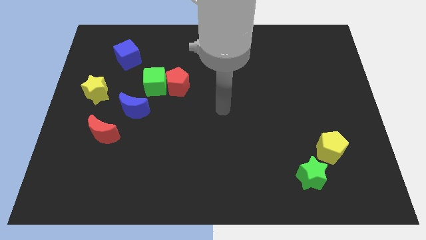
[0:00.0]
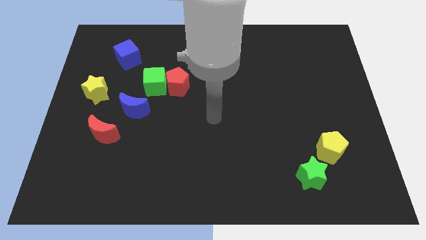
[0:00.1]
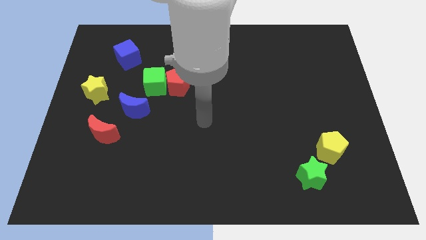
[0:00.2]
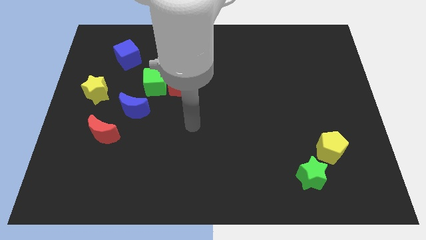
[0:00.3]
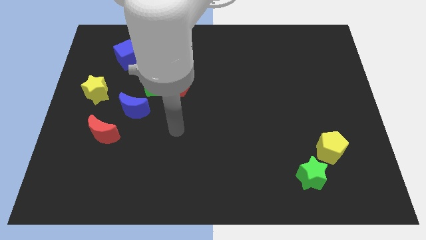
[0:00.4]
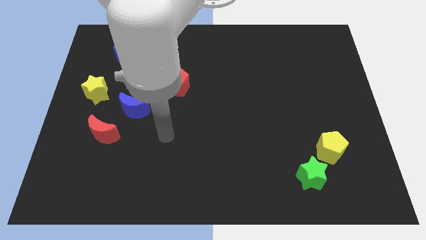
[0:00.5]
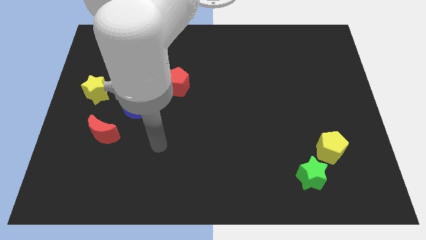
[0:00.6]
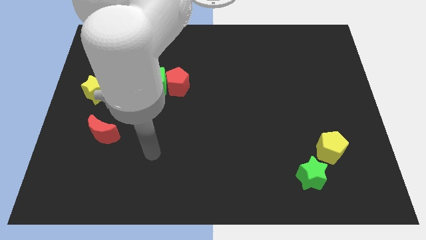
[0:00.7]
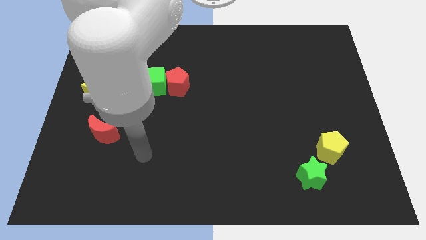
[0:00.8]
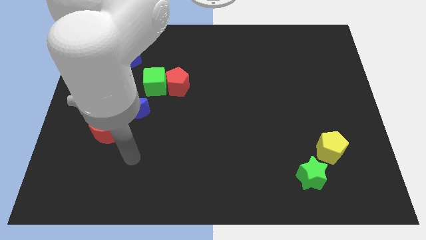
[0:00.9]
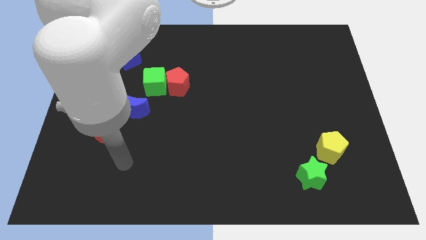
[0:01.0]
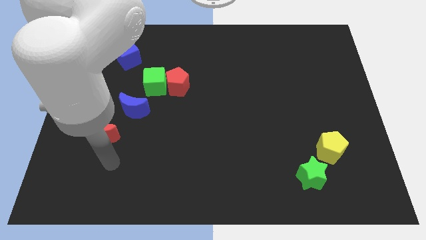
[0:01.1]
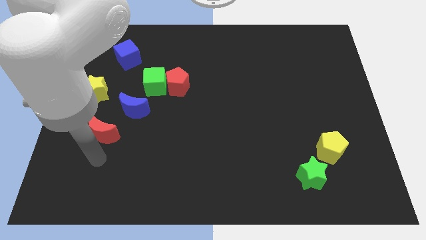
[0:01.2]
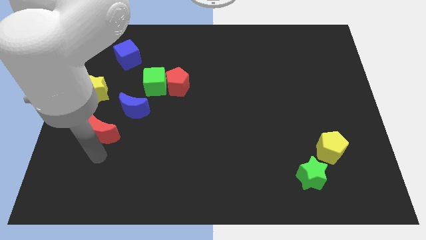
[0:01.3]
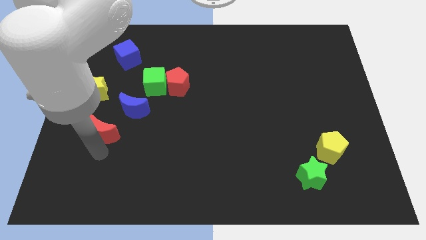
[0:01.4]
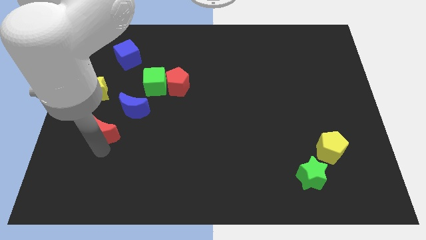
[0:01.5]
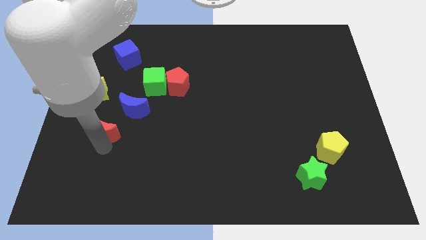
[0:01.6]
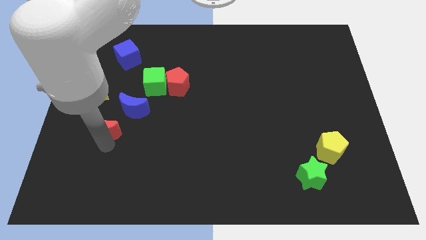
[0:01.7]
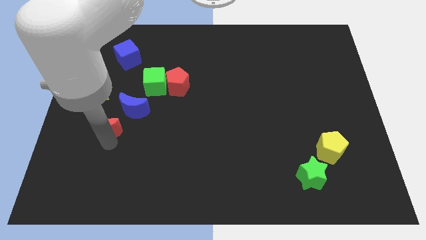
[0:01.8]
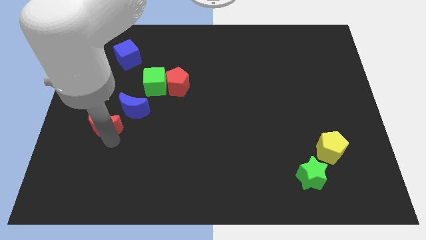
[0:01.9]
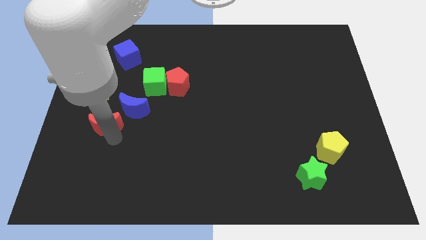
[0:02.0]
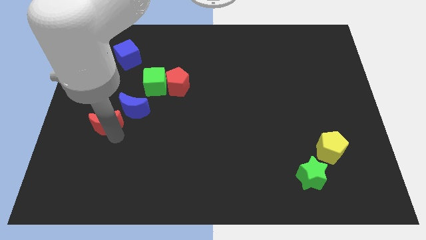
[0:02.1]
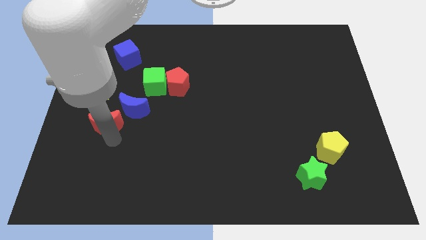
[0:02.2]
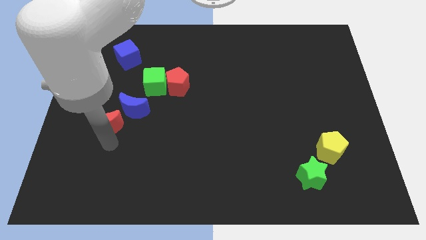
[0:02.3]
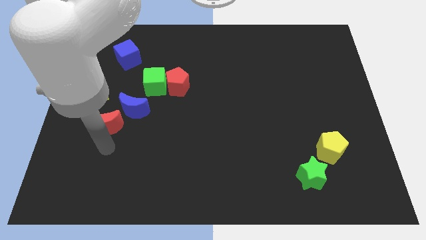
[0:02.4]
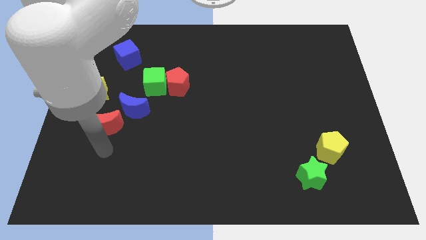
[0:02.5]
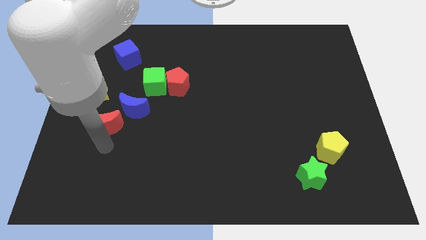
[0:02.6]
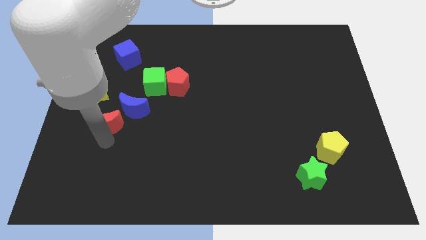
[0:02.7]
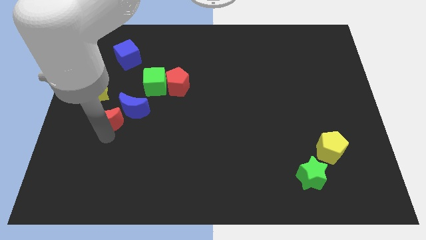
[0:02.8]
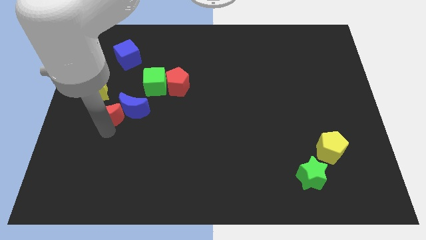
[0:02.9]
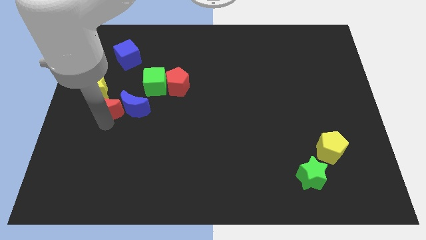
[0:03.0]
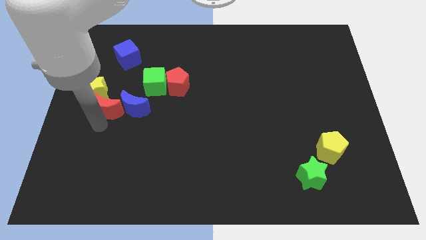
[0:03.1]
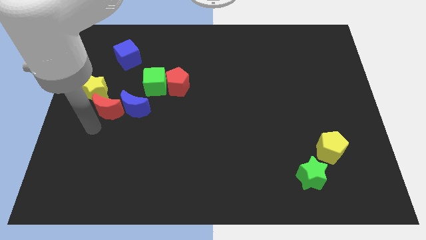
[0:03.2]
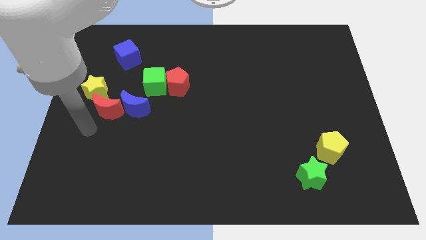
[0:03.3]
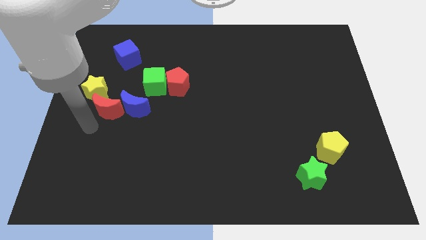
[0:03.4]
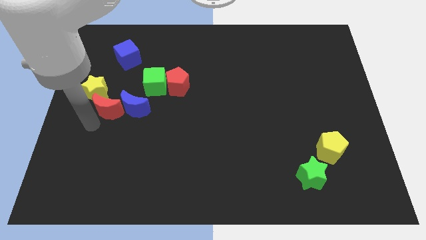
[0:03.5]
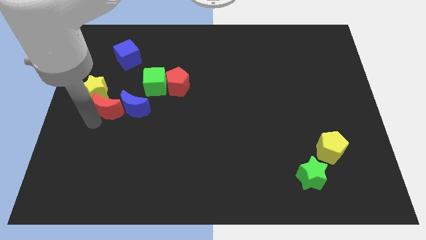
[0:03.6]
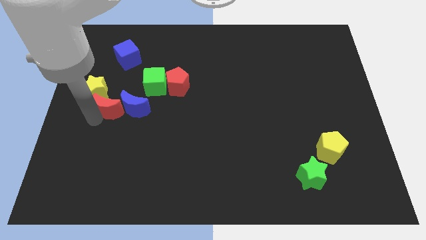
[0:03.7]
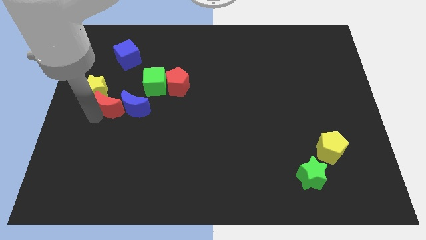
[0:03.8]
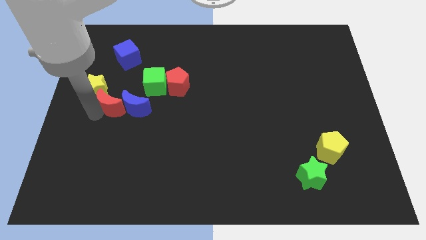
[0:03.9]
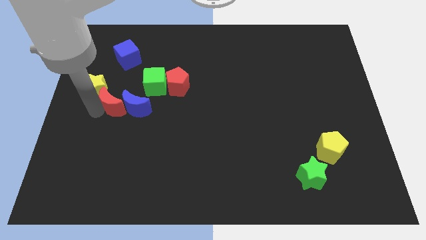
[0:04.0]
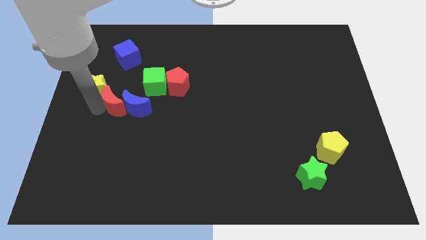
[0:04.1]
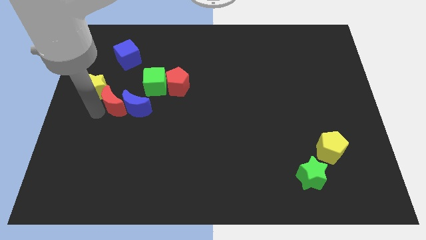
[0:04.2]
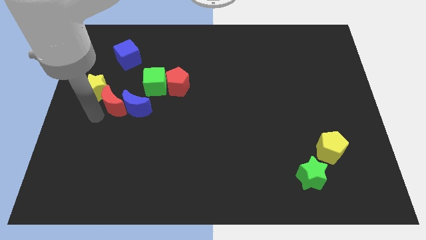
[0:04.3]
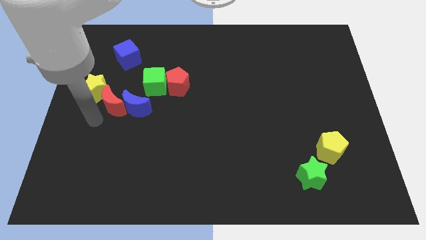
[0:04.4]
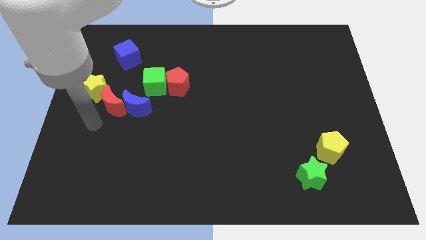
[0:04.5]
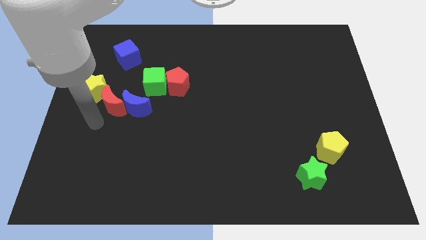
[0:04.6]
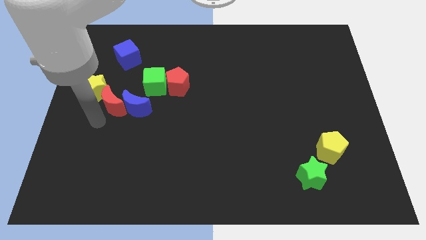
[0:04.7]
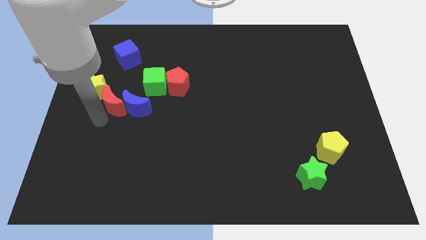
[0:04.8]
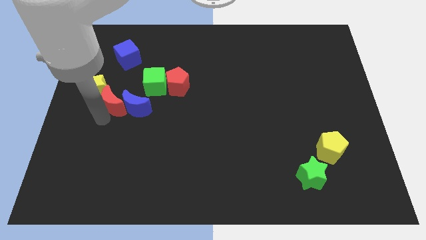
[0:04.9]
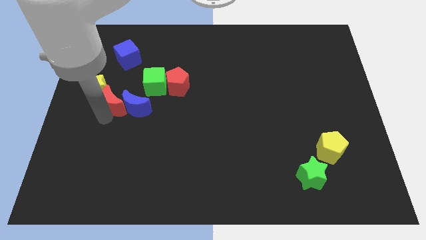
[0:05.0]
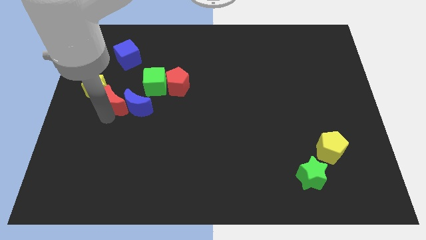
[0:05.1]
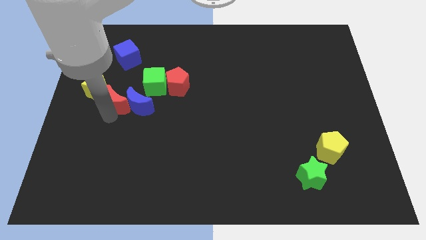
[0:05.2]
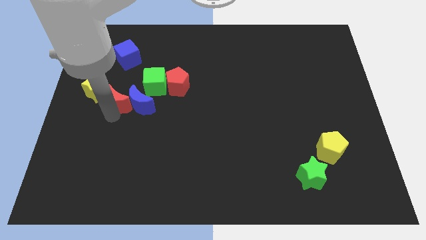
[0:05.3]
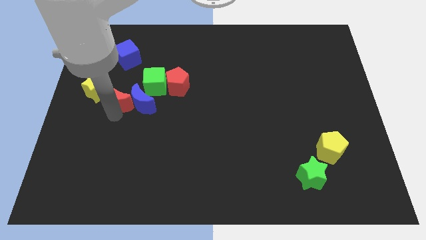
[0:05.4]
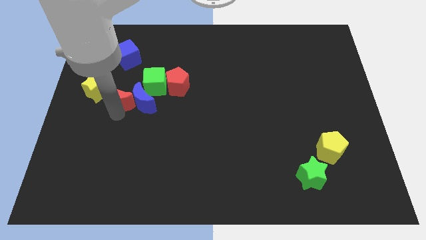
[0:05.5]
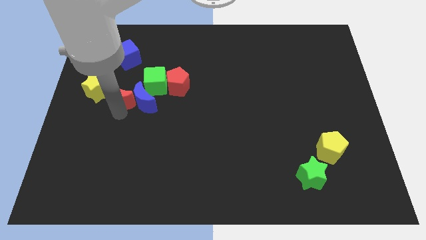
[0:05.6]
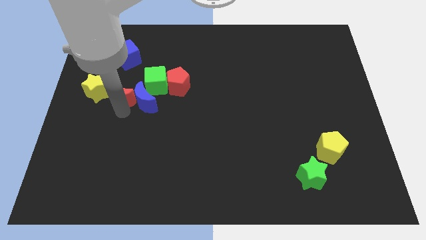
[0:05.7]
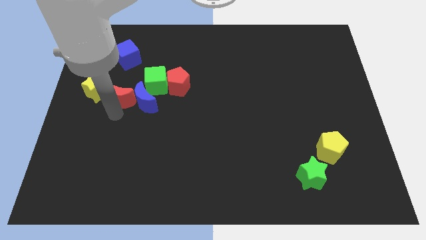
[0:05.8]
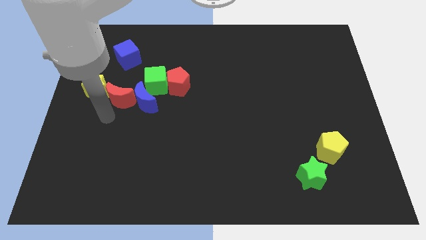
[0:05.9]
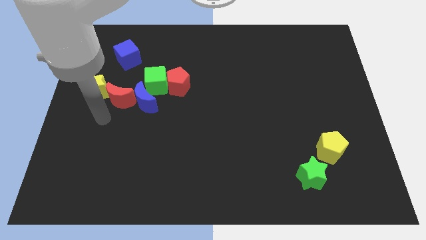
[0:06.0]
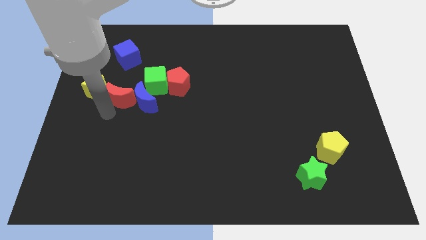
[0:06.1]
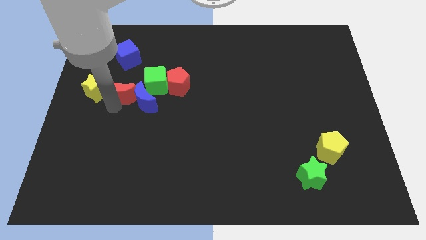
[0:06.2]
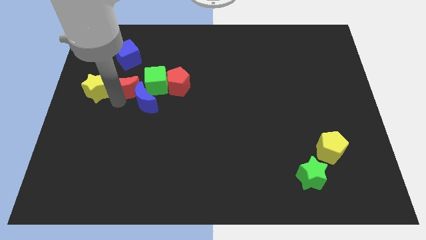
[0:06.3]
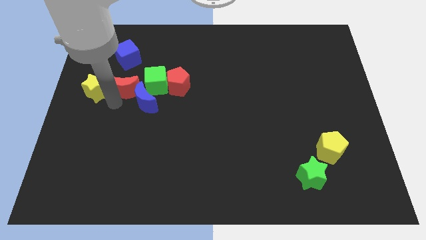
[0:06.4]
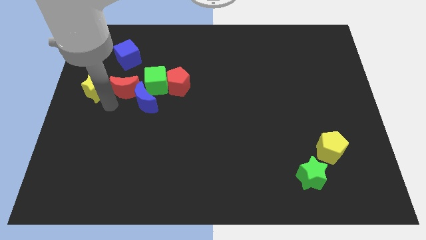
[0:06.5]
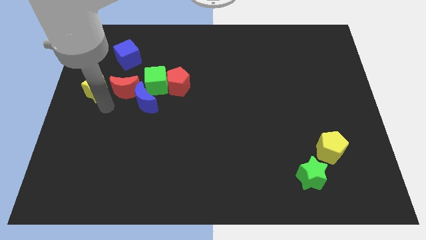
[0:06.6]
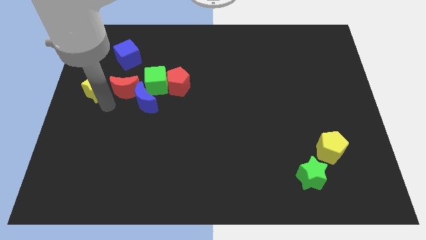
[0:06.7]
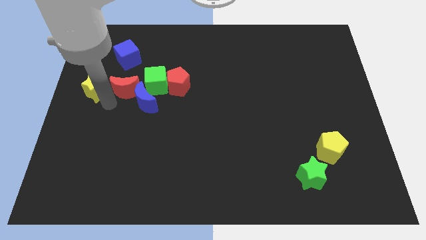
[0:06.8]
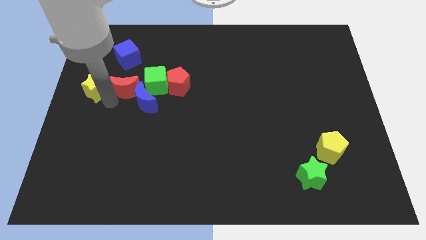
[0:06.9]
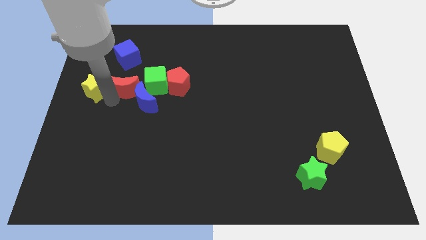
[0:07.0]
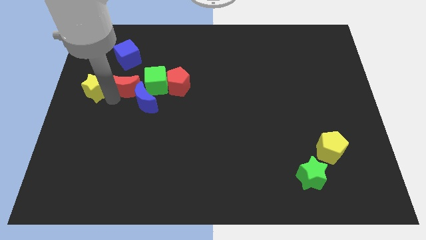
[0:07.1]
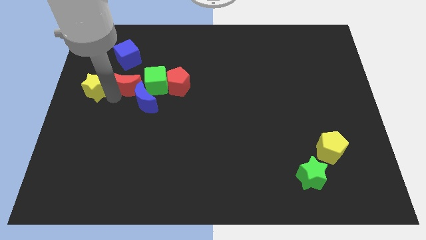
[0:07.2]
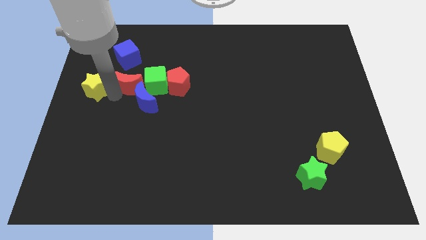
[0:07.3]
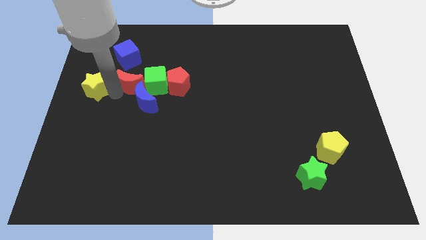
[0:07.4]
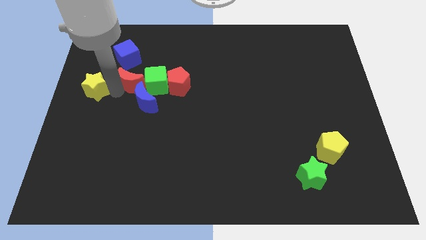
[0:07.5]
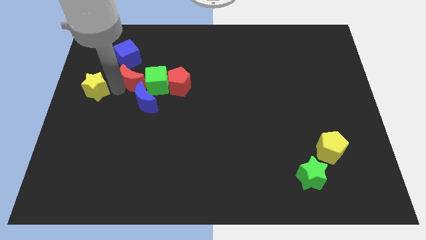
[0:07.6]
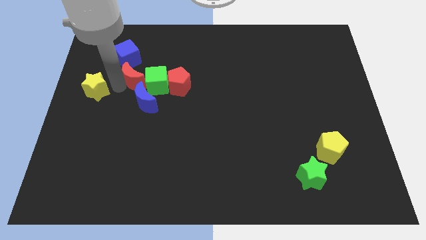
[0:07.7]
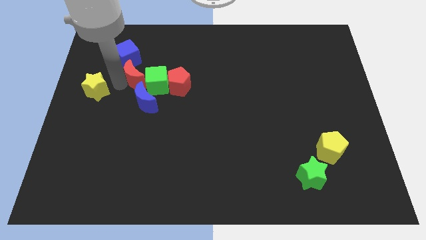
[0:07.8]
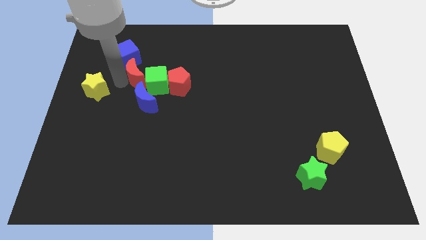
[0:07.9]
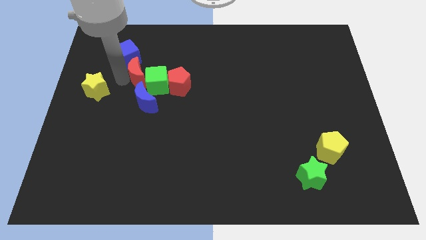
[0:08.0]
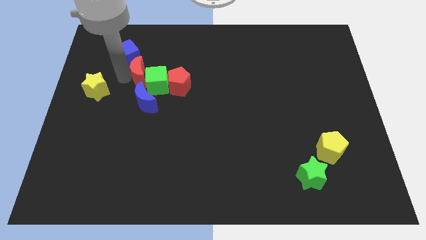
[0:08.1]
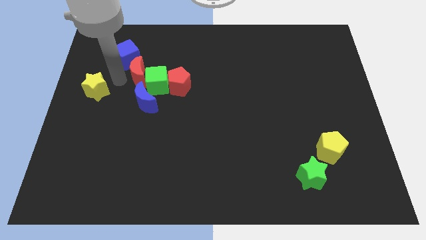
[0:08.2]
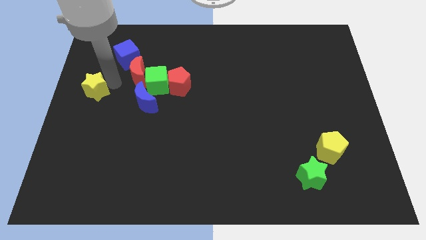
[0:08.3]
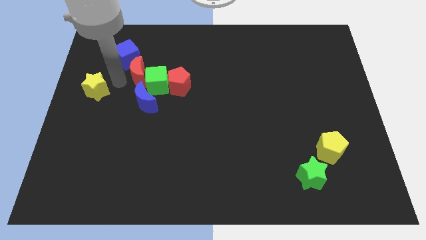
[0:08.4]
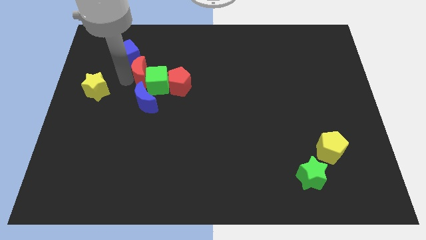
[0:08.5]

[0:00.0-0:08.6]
slide the red moon to the top left side of the red pentagon

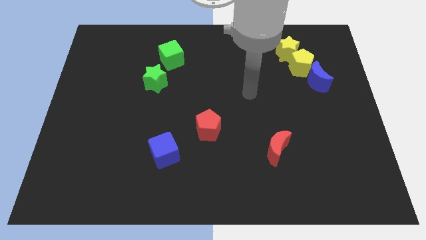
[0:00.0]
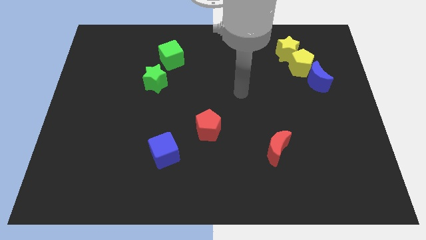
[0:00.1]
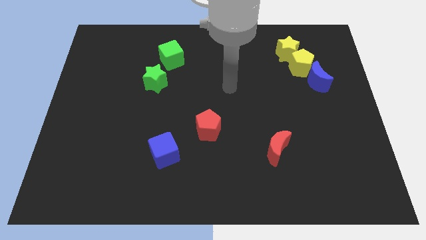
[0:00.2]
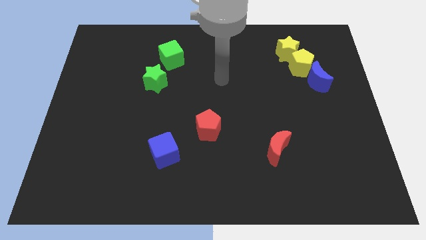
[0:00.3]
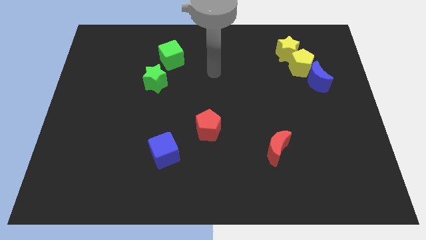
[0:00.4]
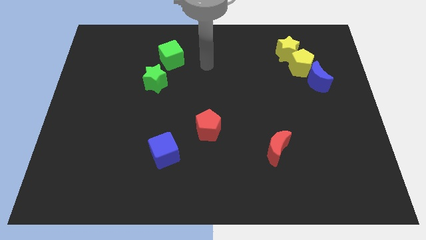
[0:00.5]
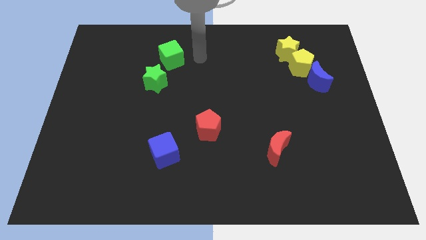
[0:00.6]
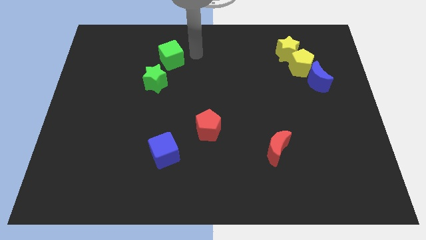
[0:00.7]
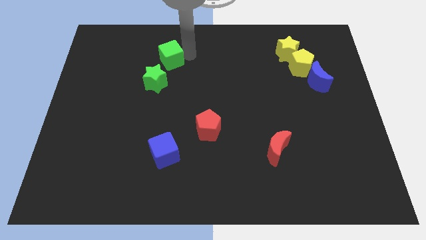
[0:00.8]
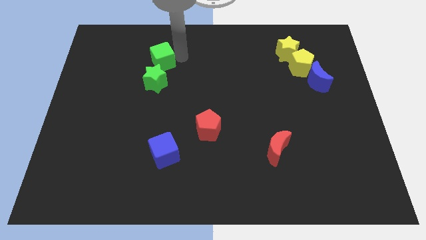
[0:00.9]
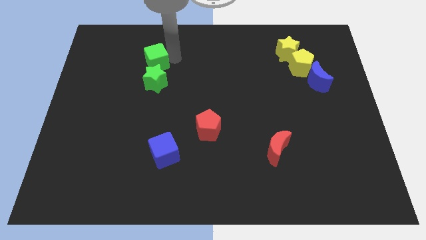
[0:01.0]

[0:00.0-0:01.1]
move the green cube diagonally up and to the left of the green star
